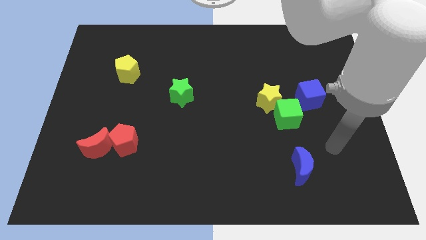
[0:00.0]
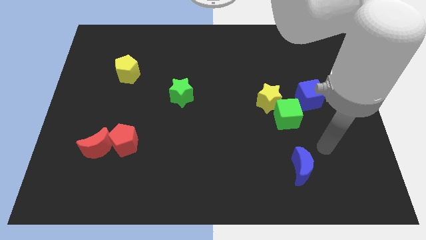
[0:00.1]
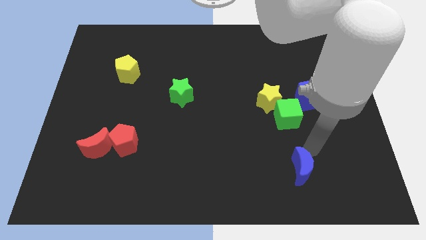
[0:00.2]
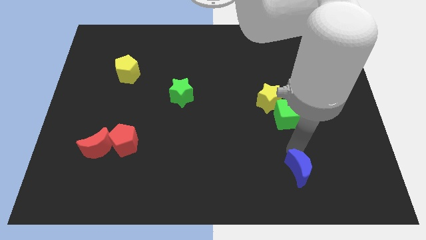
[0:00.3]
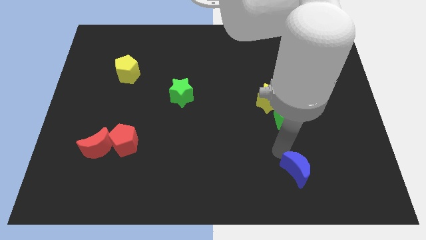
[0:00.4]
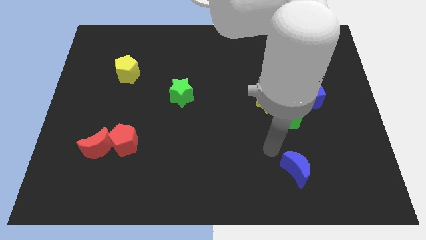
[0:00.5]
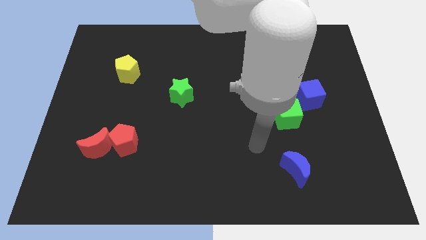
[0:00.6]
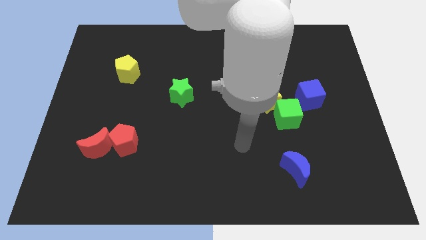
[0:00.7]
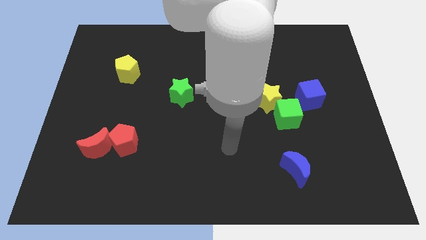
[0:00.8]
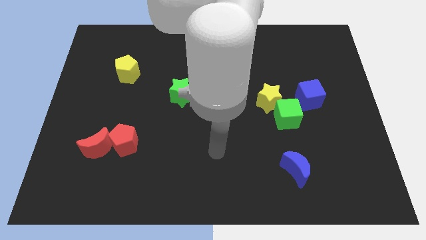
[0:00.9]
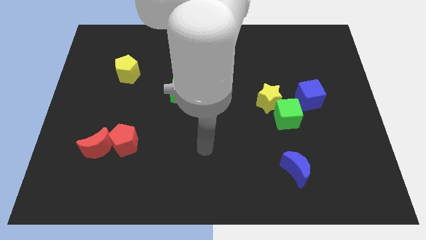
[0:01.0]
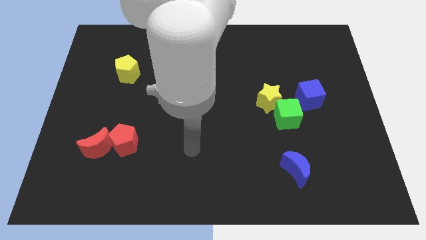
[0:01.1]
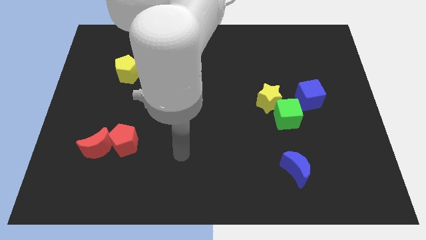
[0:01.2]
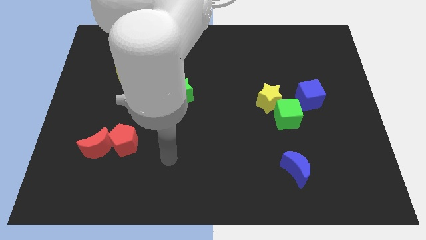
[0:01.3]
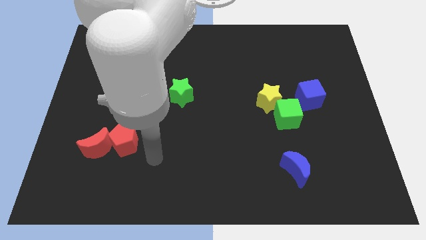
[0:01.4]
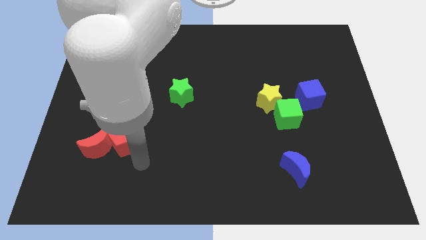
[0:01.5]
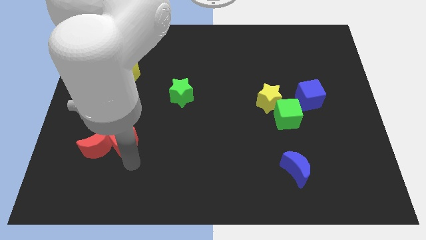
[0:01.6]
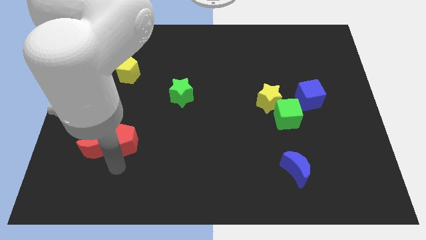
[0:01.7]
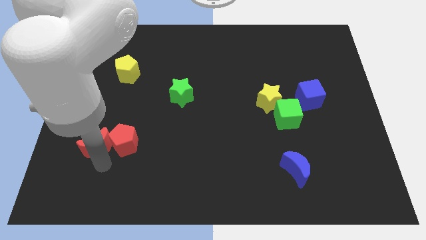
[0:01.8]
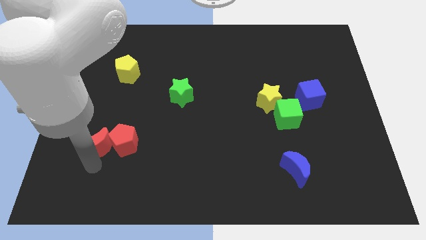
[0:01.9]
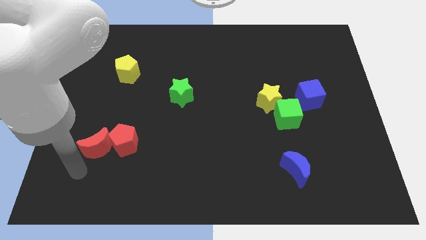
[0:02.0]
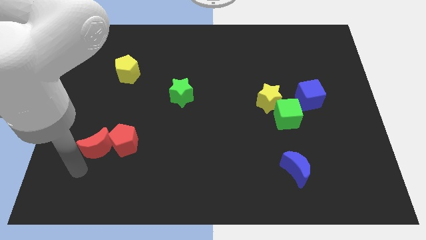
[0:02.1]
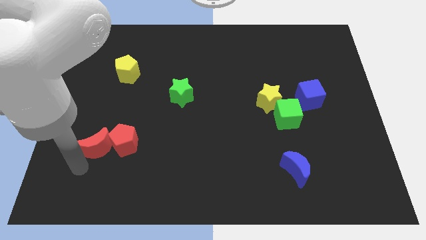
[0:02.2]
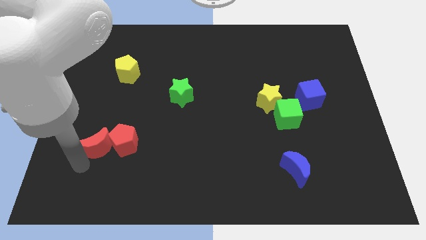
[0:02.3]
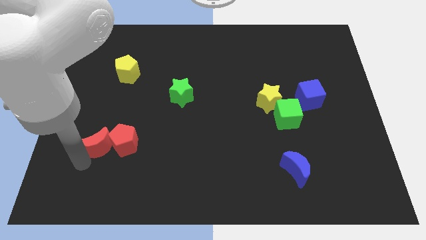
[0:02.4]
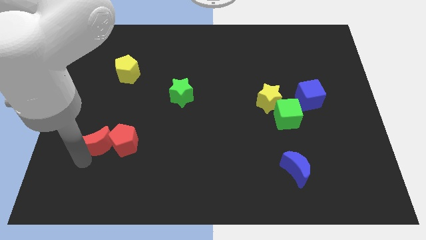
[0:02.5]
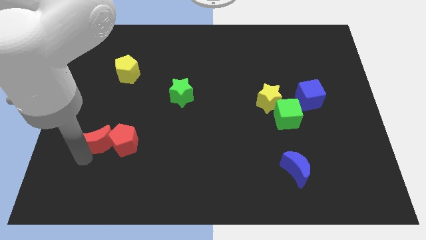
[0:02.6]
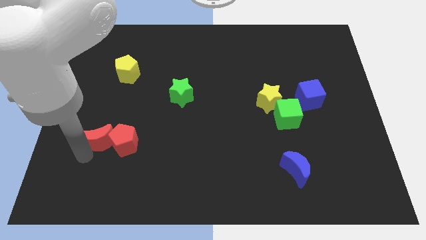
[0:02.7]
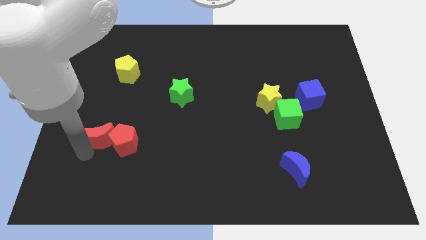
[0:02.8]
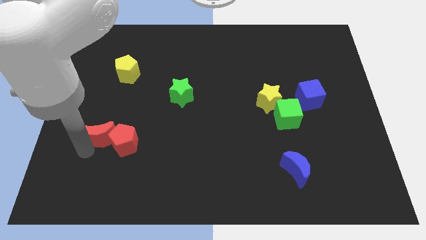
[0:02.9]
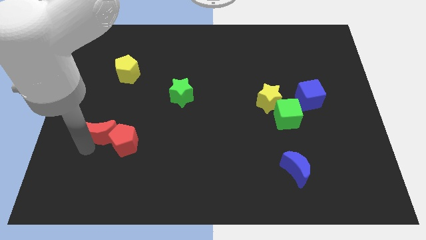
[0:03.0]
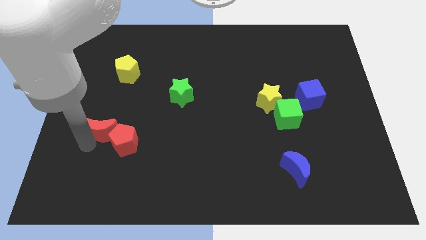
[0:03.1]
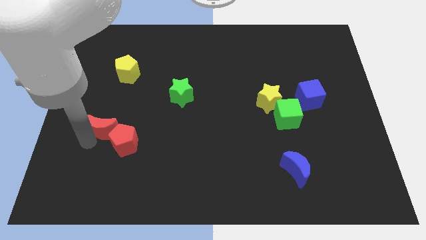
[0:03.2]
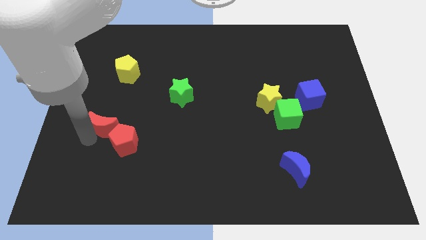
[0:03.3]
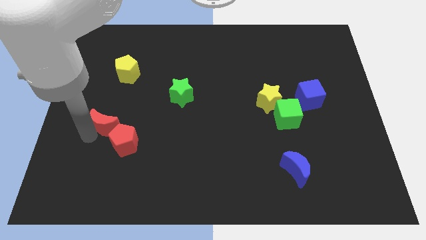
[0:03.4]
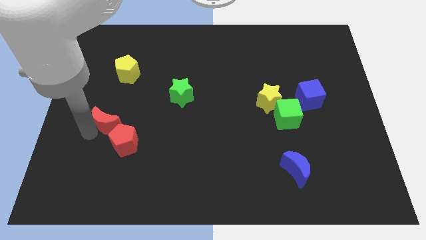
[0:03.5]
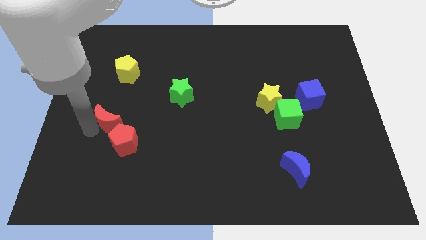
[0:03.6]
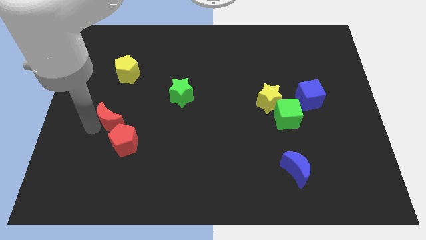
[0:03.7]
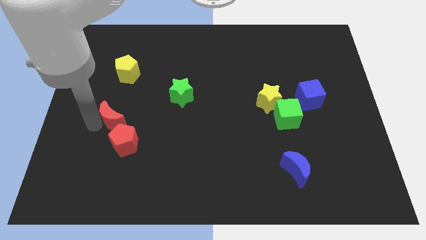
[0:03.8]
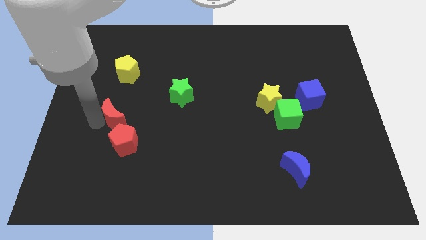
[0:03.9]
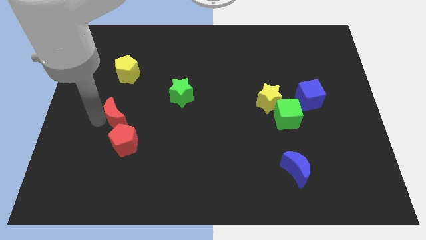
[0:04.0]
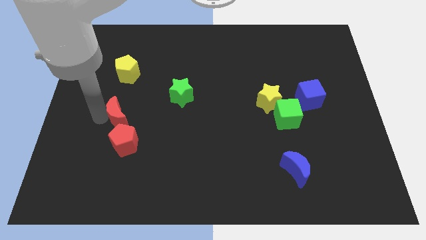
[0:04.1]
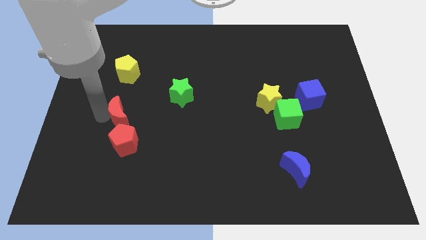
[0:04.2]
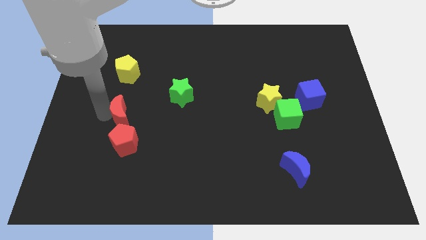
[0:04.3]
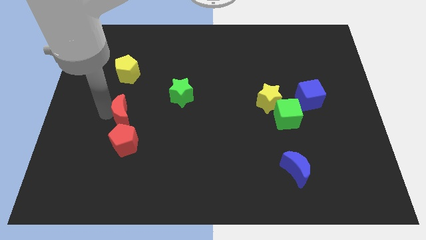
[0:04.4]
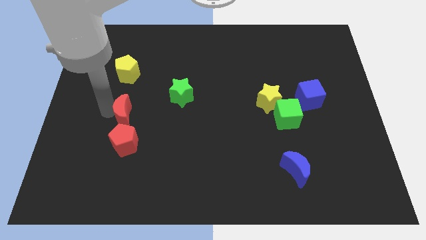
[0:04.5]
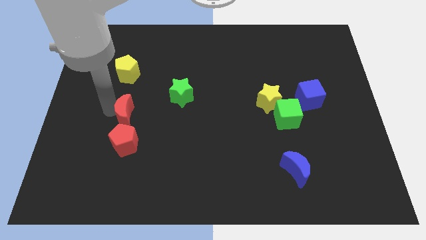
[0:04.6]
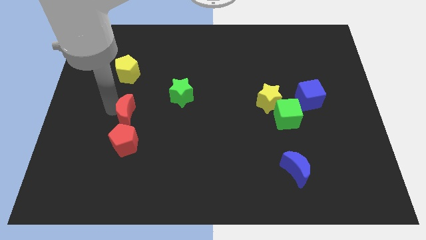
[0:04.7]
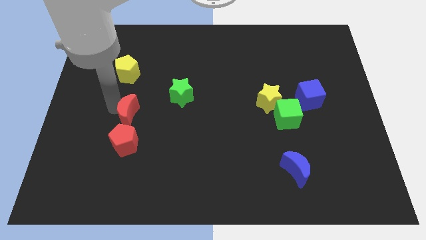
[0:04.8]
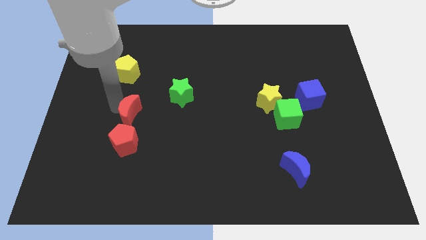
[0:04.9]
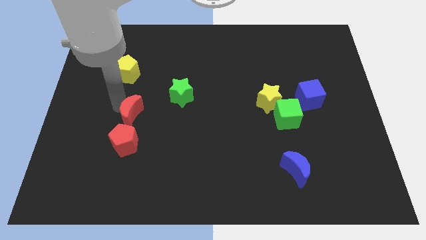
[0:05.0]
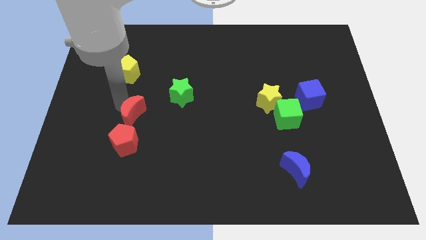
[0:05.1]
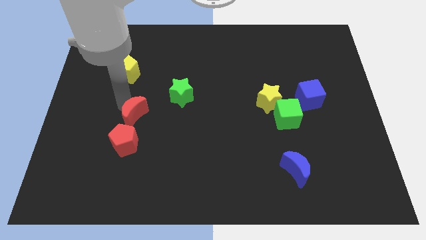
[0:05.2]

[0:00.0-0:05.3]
move the red moon to the bottom left of the green star

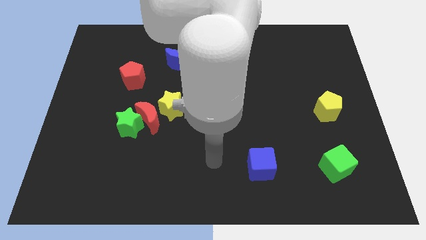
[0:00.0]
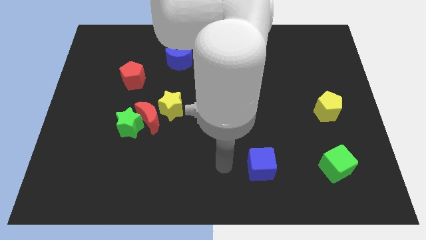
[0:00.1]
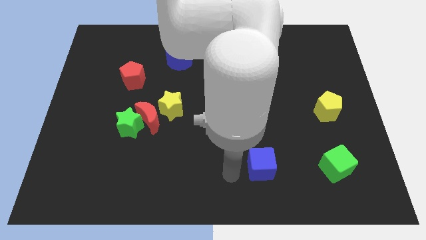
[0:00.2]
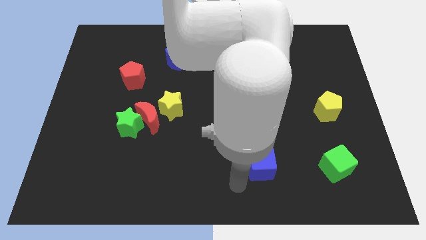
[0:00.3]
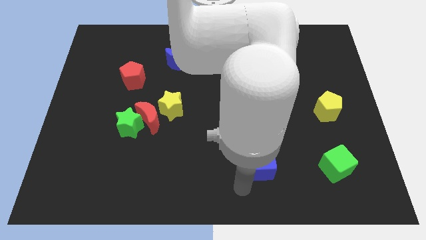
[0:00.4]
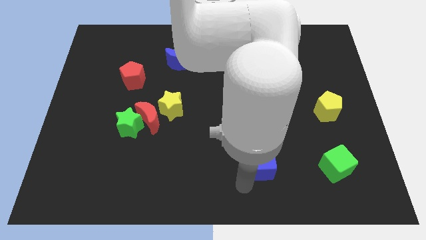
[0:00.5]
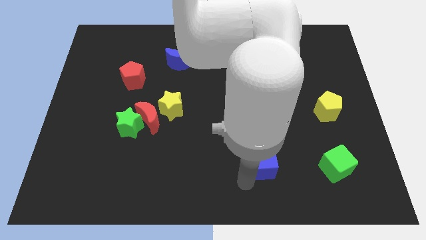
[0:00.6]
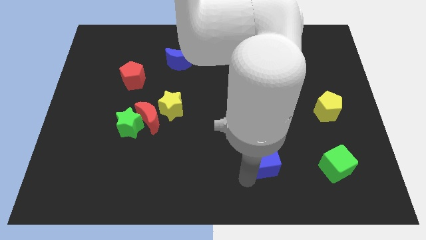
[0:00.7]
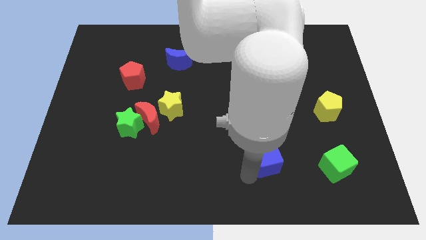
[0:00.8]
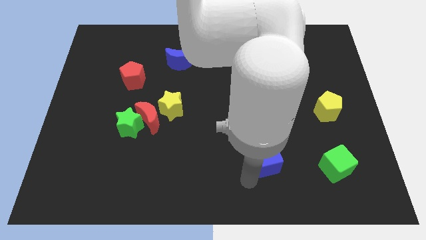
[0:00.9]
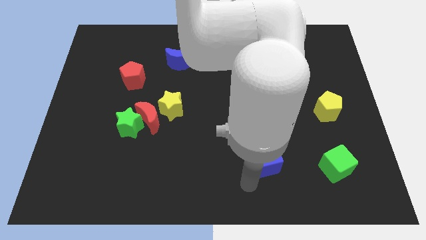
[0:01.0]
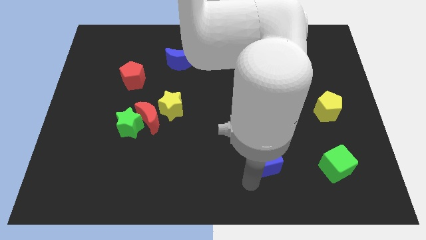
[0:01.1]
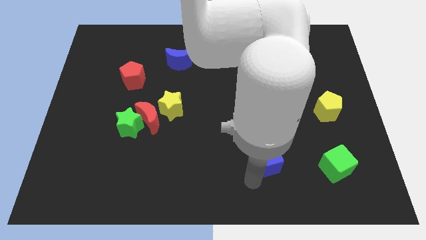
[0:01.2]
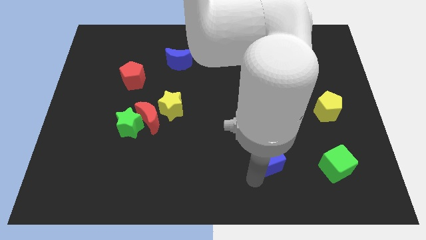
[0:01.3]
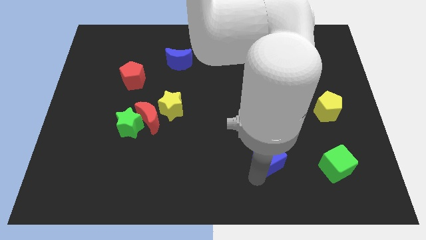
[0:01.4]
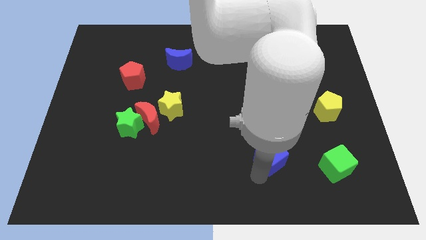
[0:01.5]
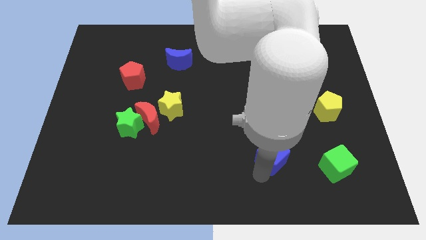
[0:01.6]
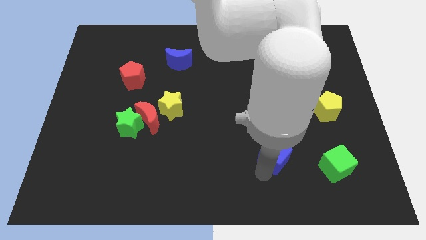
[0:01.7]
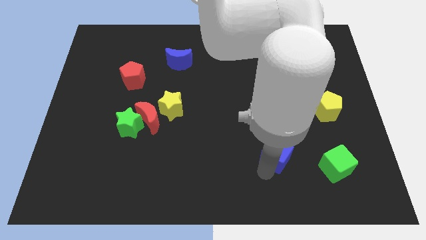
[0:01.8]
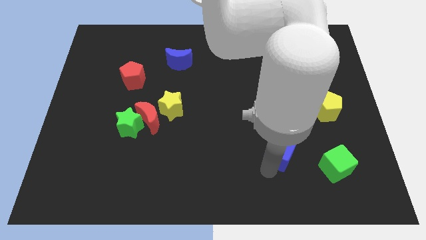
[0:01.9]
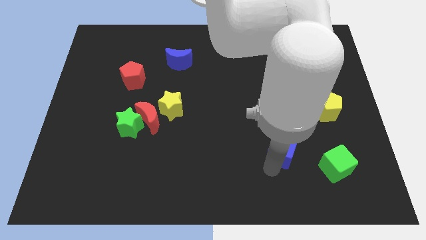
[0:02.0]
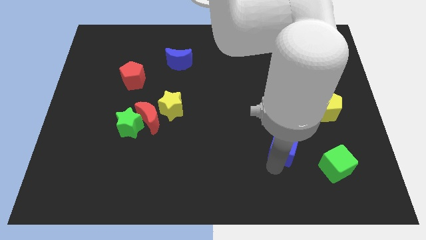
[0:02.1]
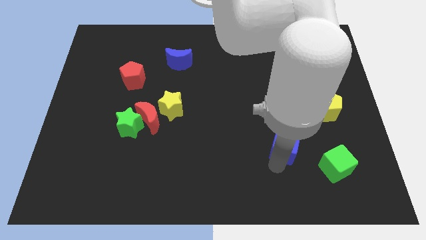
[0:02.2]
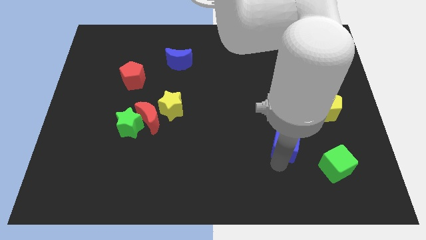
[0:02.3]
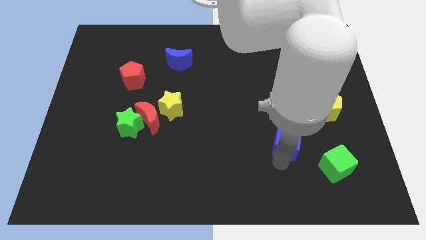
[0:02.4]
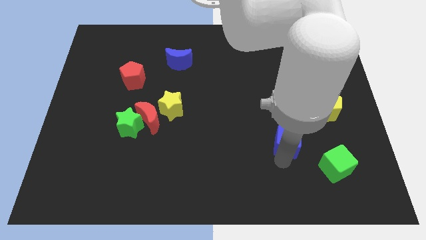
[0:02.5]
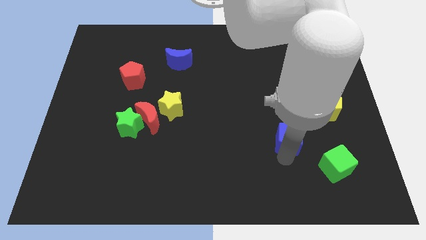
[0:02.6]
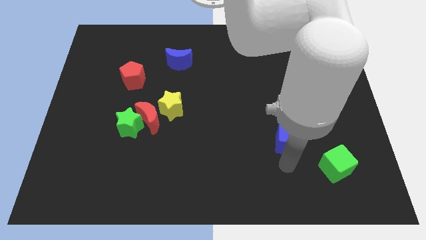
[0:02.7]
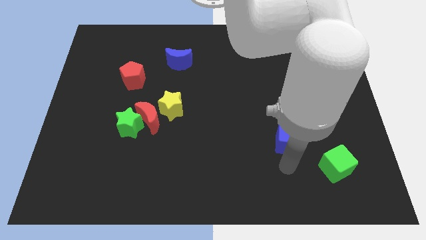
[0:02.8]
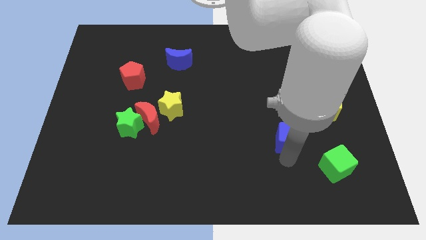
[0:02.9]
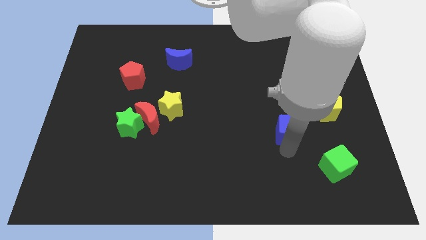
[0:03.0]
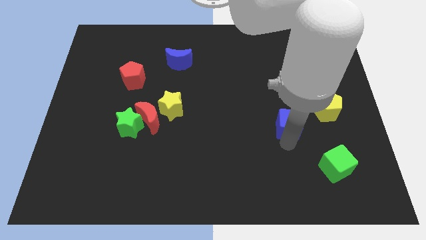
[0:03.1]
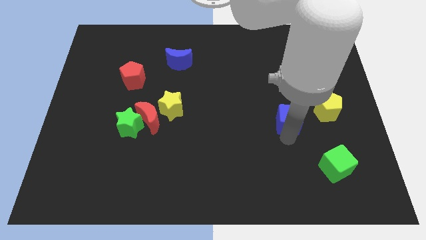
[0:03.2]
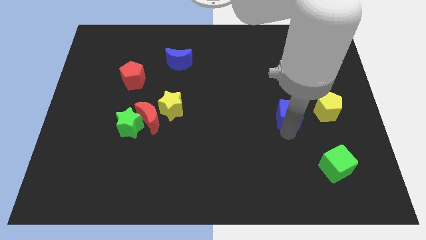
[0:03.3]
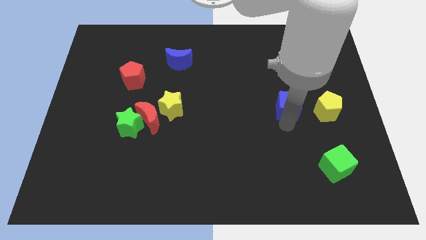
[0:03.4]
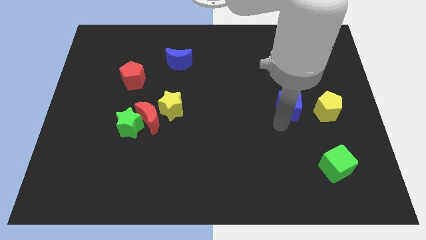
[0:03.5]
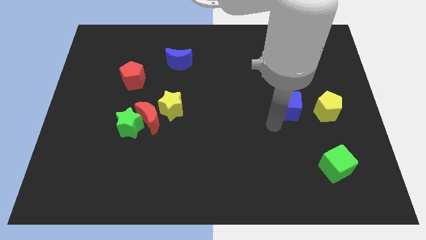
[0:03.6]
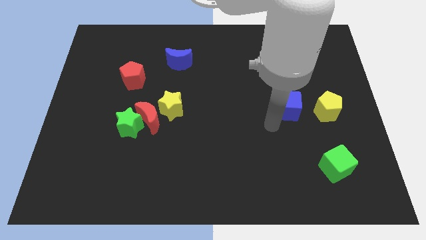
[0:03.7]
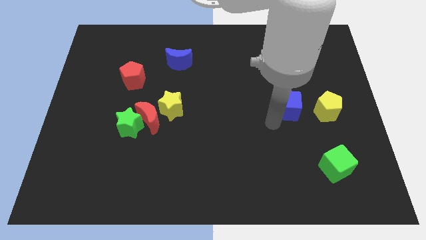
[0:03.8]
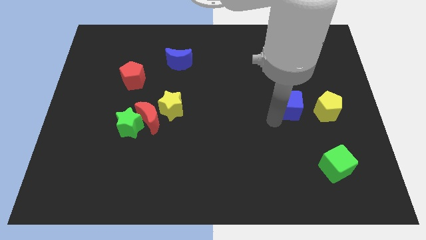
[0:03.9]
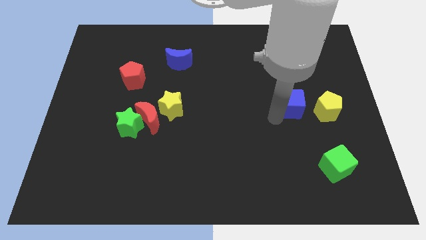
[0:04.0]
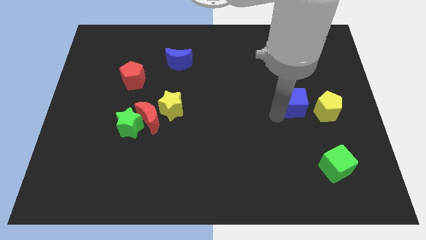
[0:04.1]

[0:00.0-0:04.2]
push the blue cube to the top left side of the yellow pentagon
